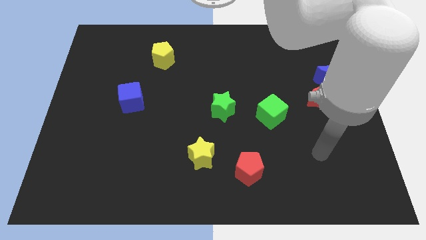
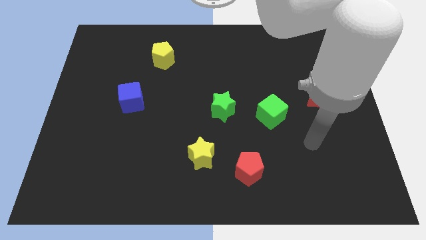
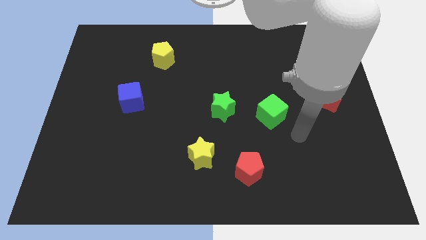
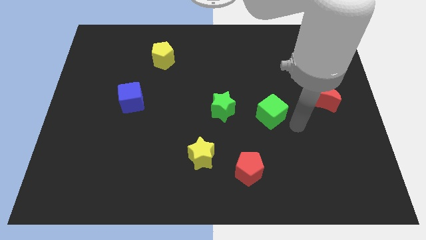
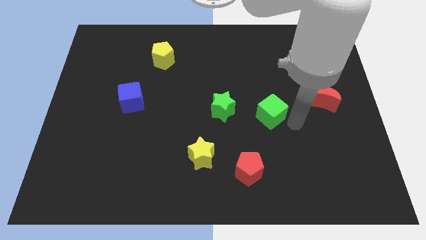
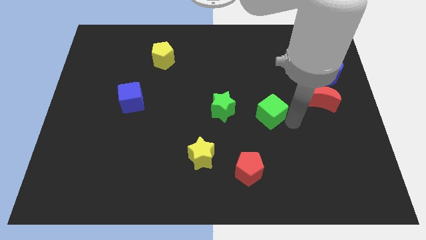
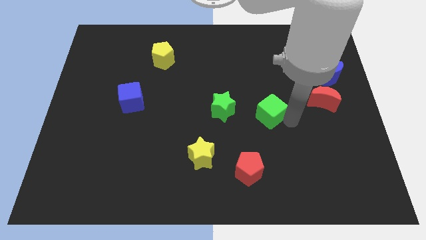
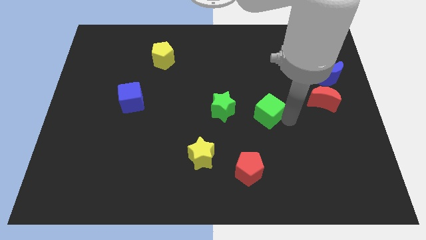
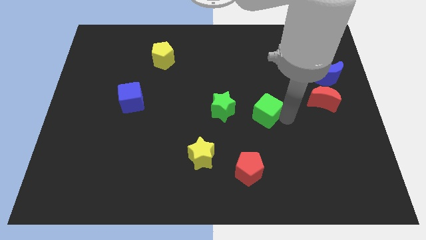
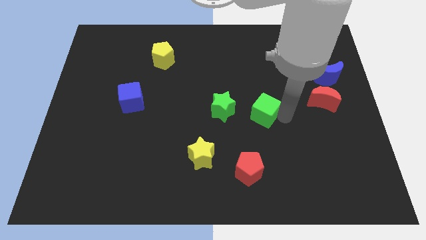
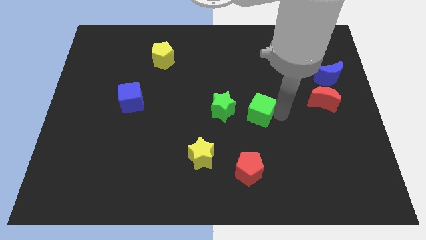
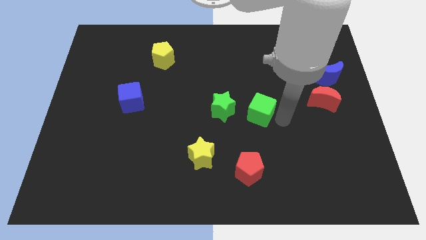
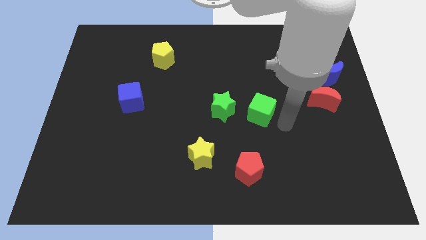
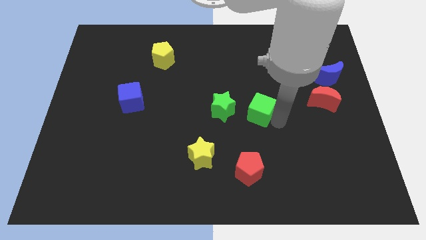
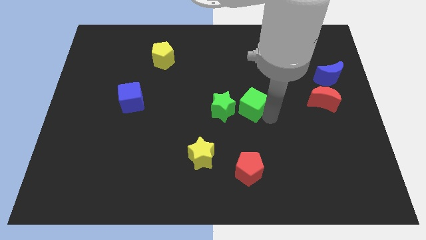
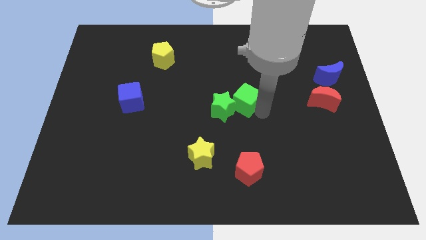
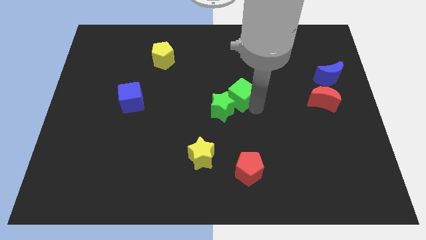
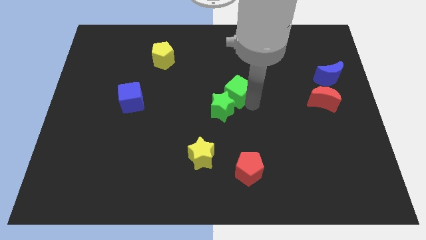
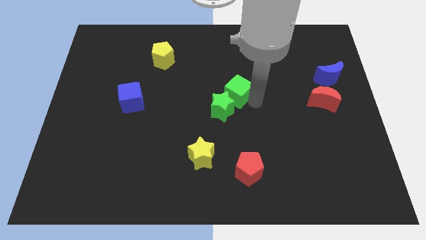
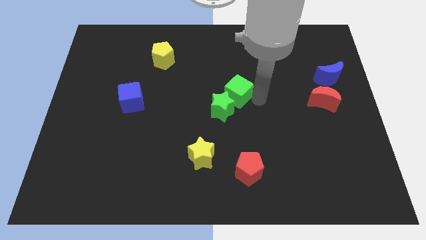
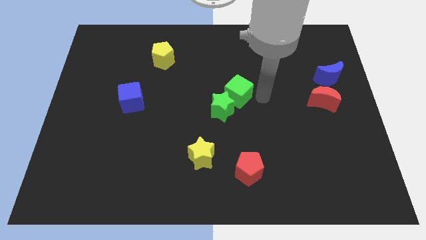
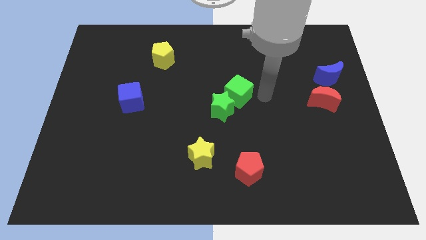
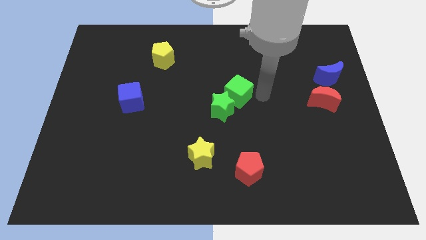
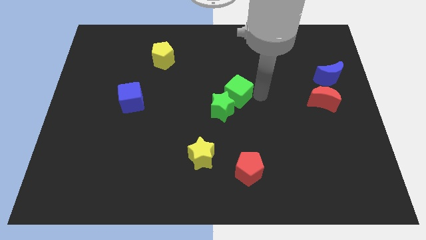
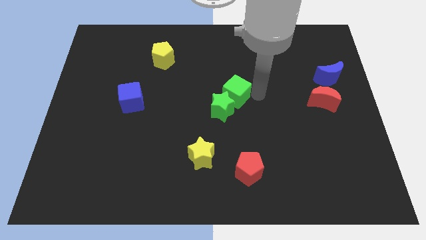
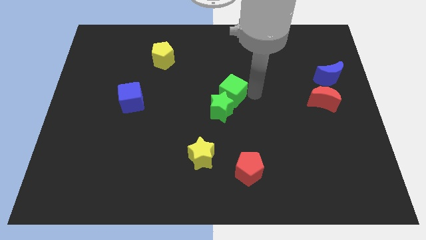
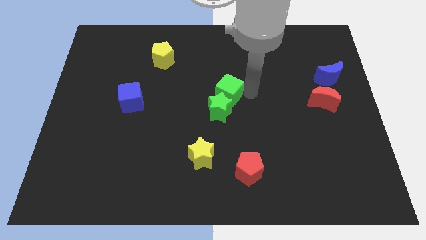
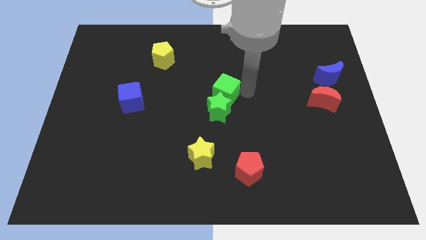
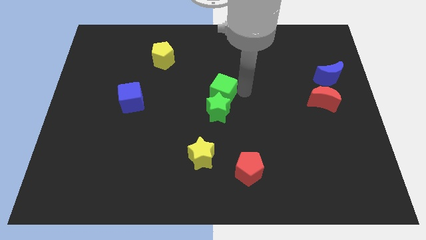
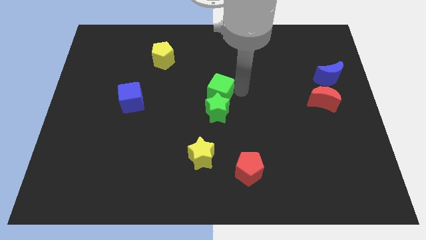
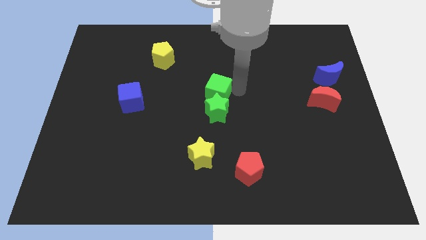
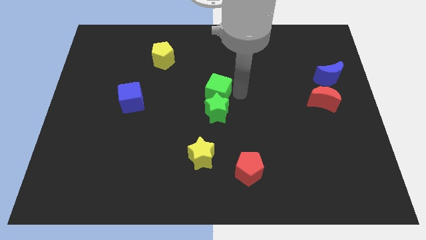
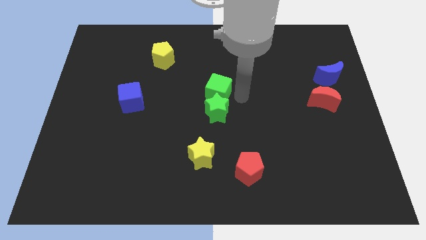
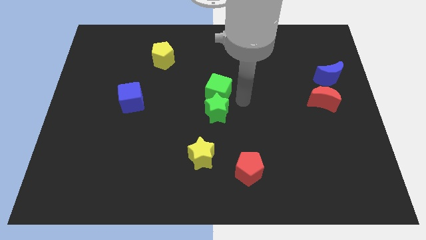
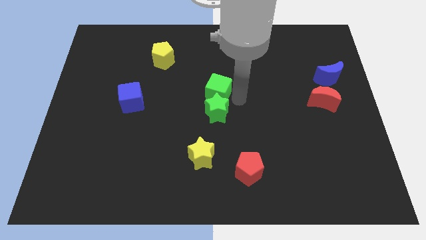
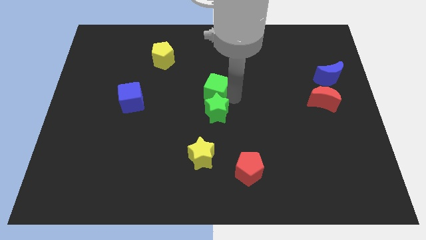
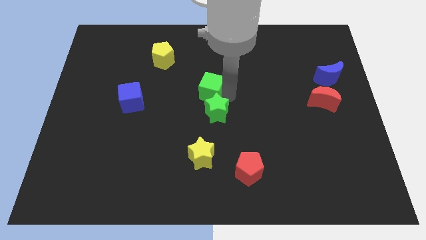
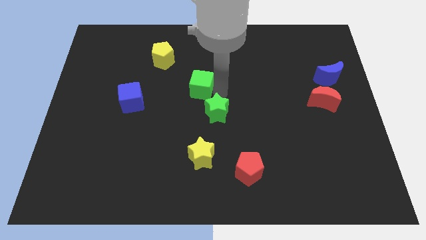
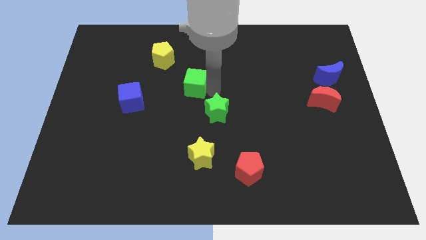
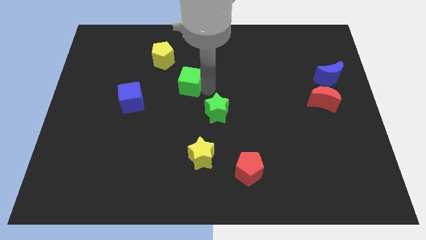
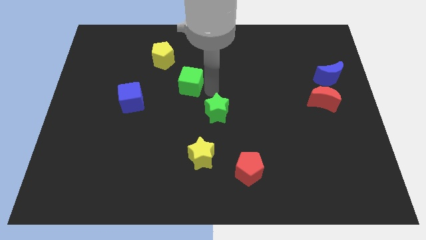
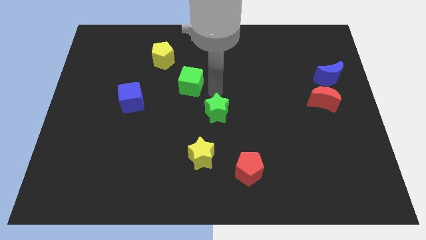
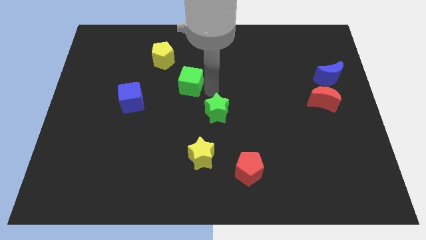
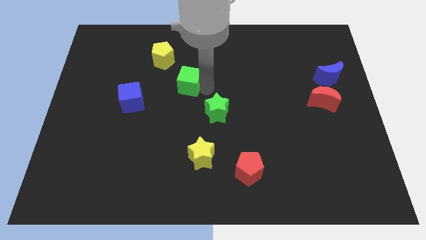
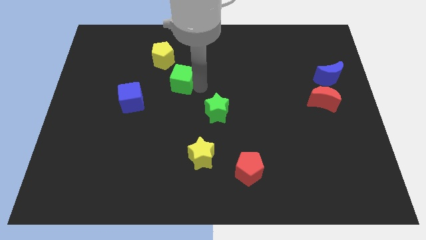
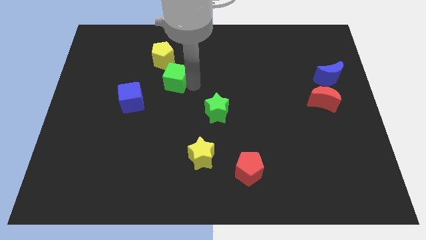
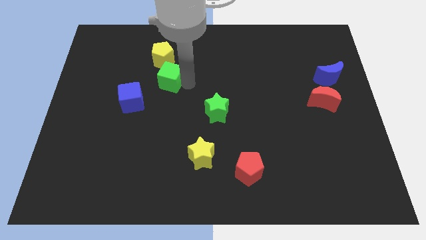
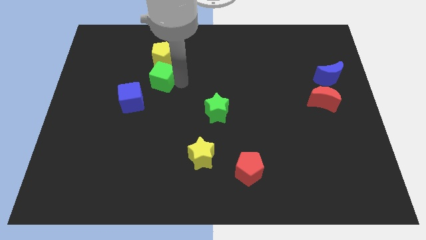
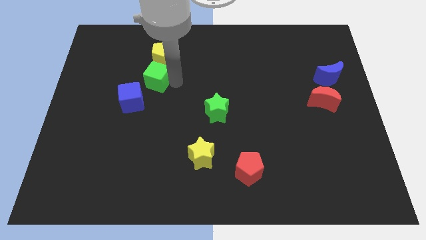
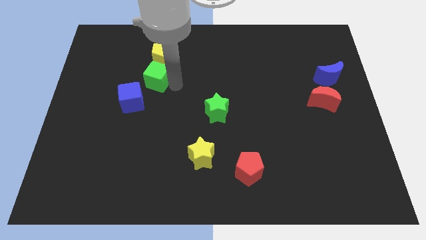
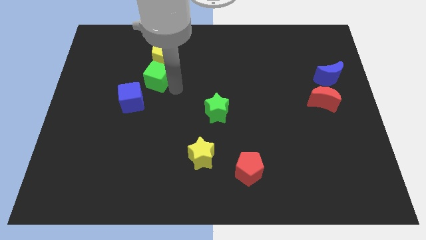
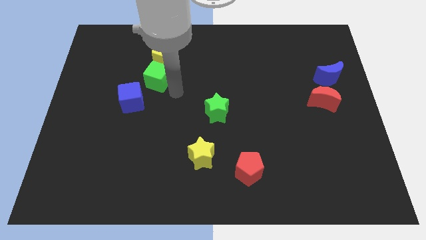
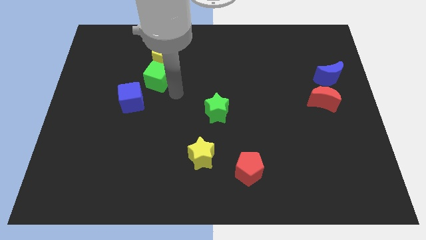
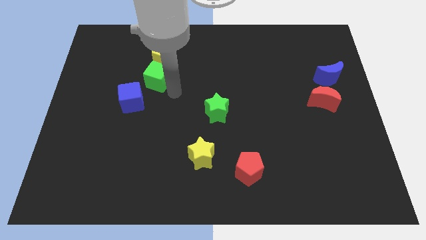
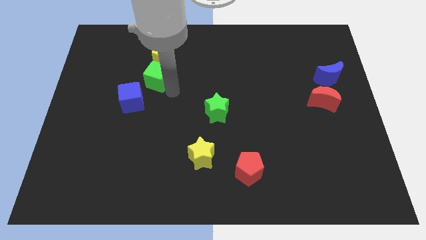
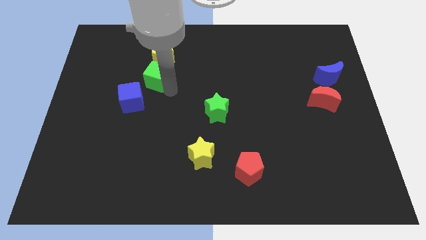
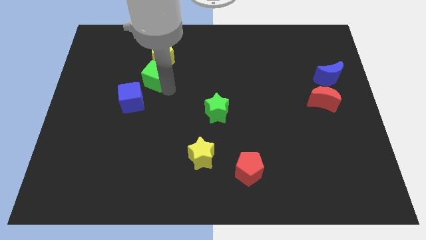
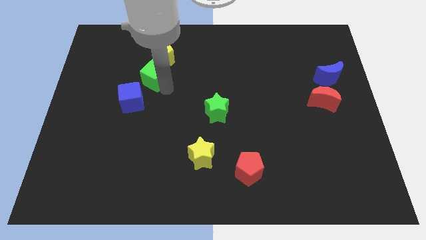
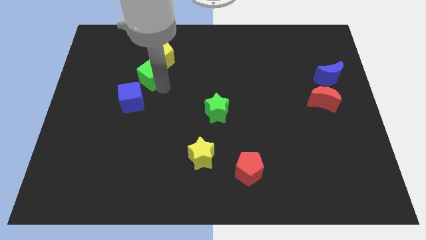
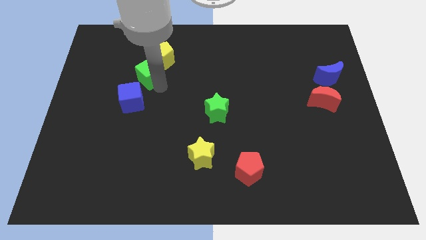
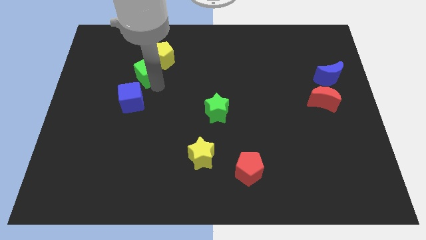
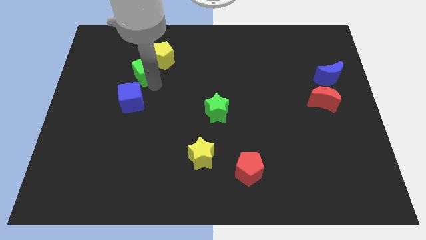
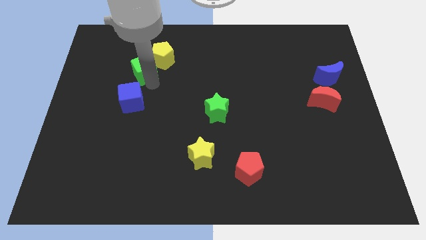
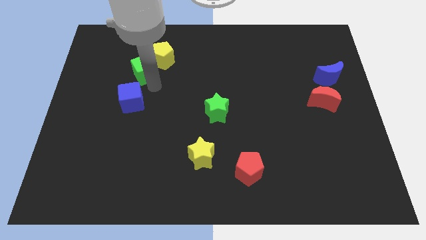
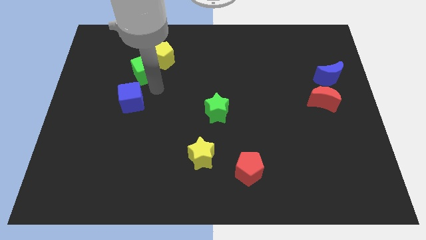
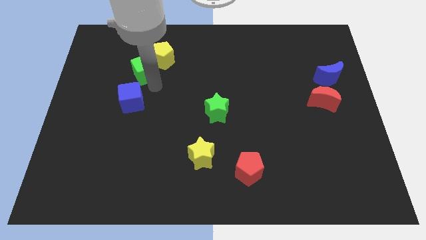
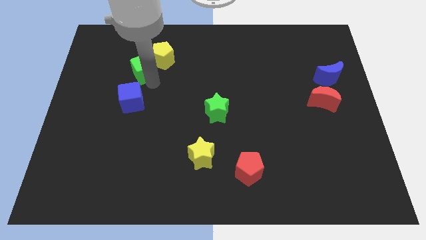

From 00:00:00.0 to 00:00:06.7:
slide the green cube to the left of the yellow pentagon

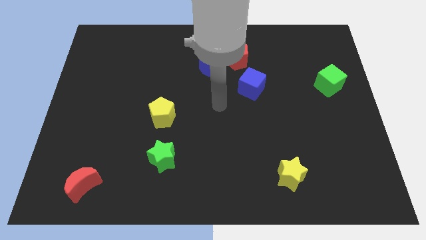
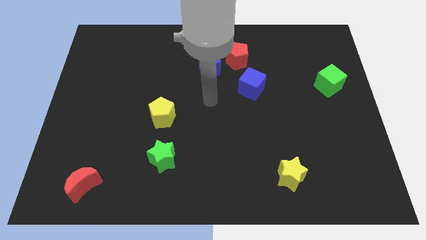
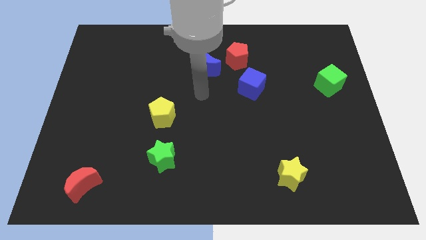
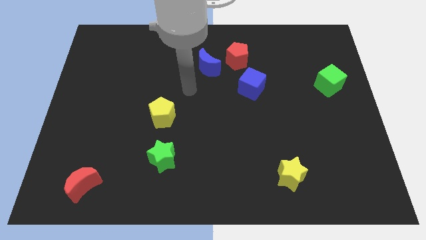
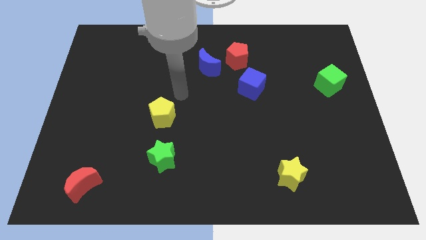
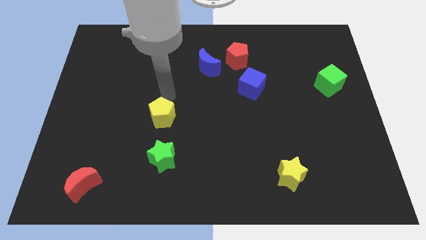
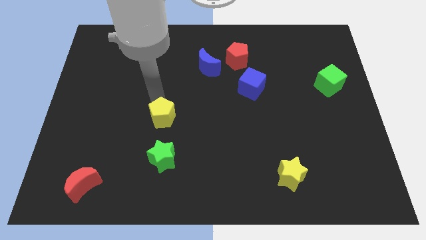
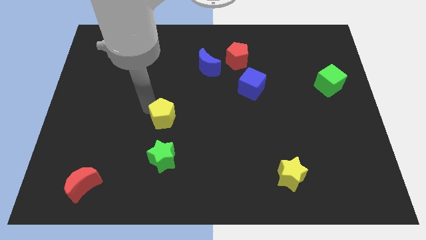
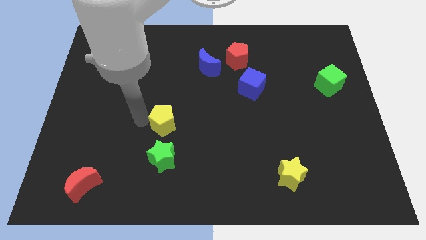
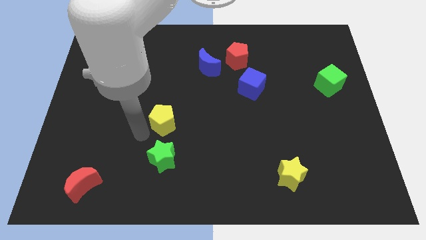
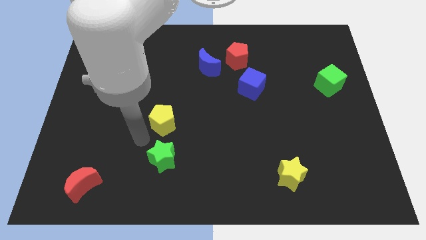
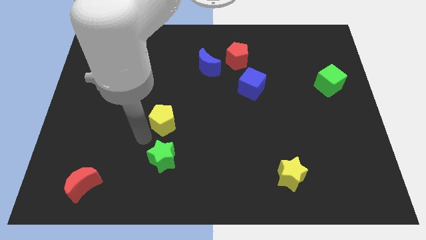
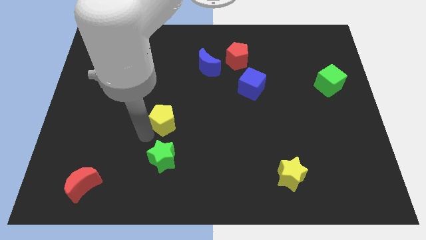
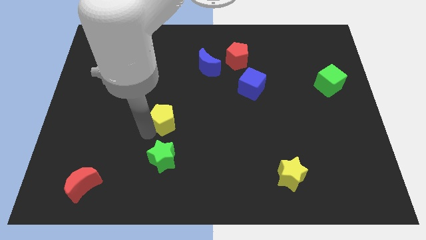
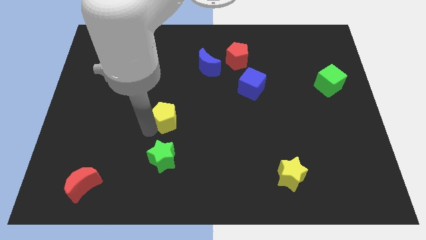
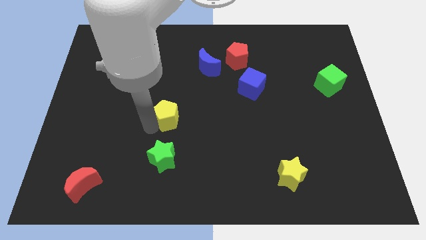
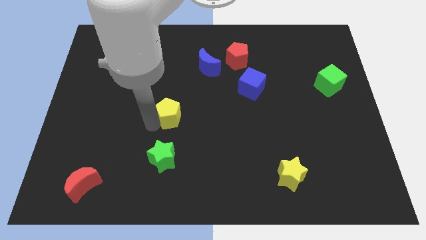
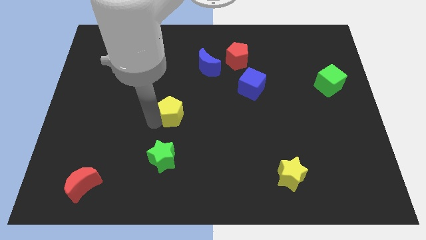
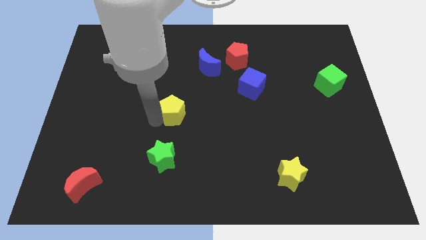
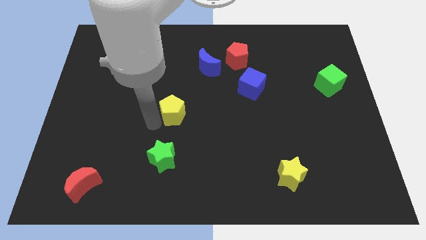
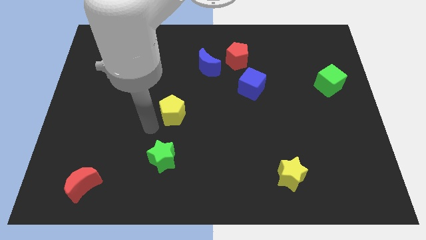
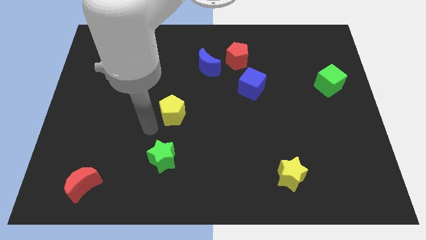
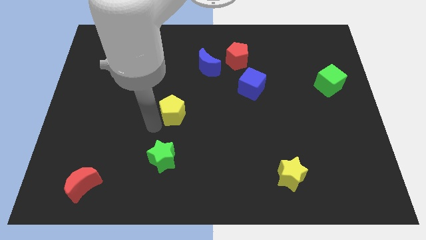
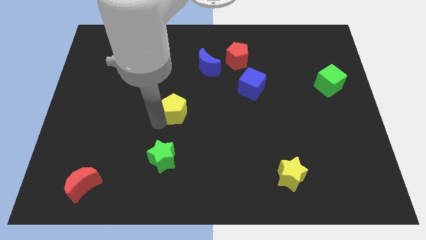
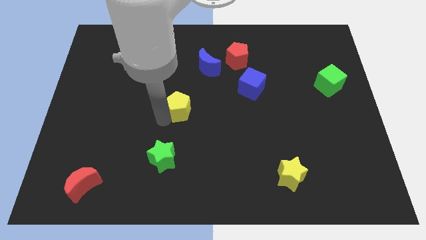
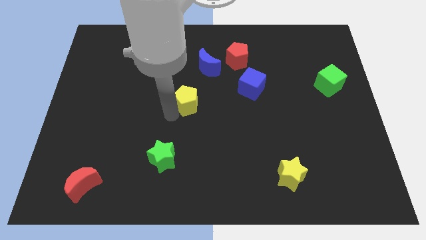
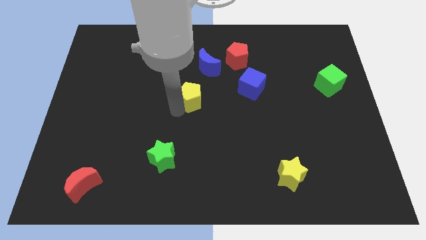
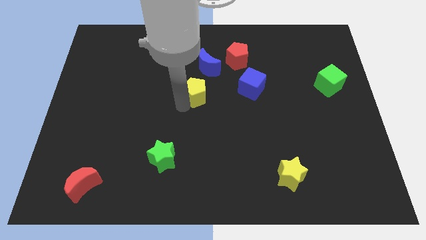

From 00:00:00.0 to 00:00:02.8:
push the yellow pentagon just left of the blue cube
